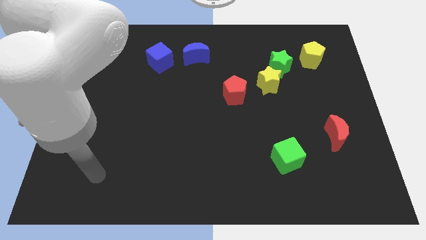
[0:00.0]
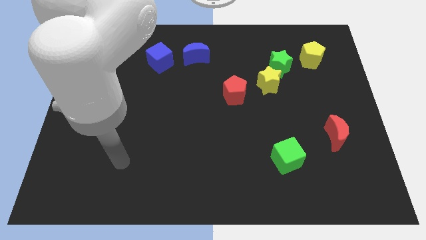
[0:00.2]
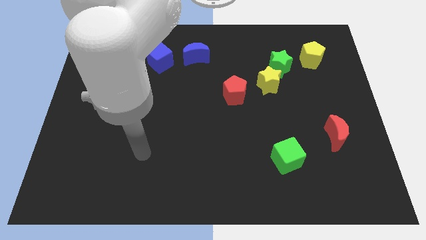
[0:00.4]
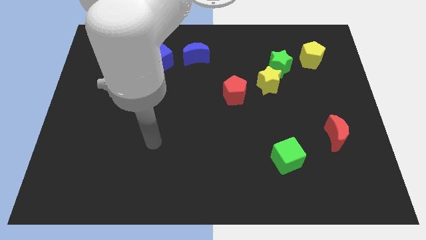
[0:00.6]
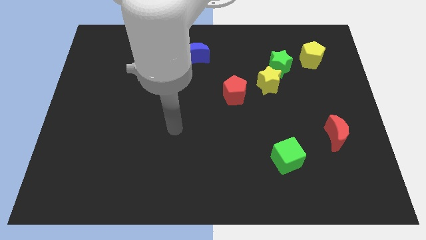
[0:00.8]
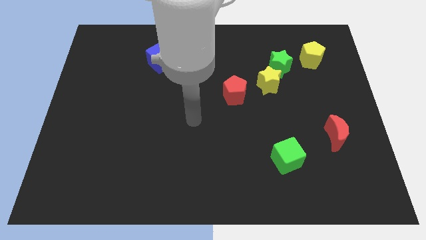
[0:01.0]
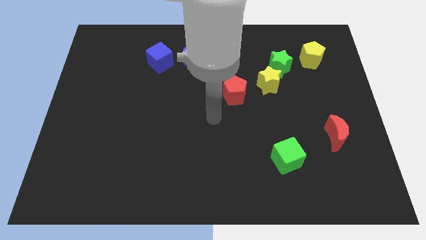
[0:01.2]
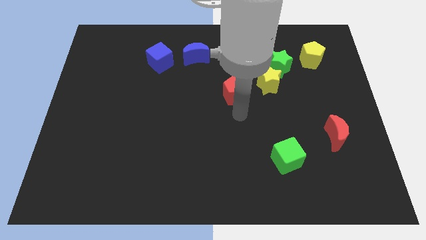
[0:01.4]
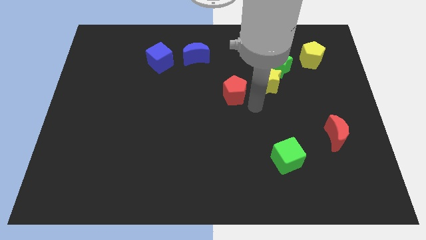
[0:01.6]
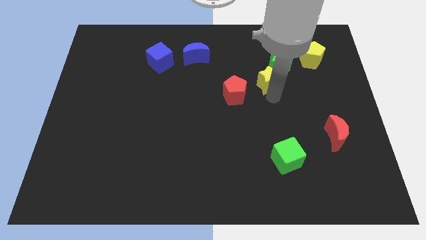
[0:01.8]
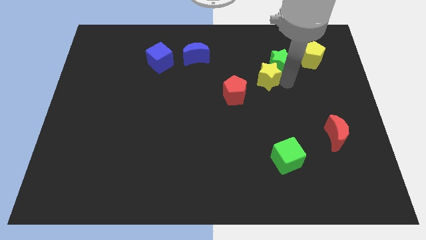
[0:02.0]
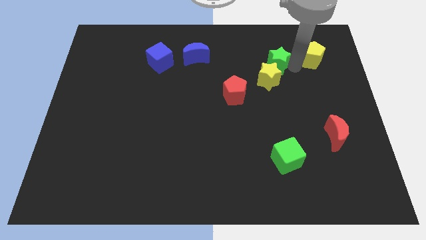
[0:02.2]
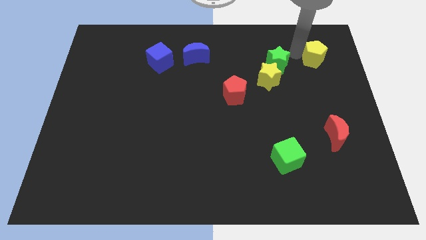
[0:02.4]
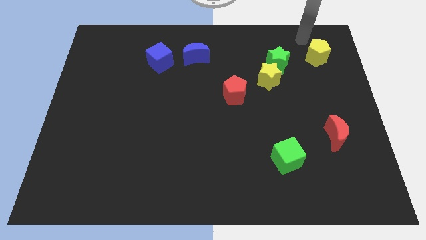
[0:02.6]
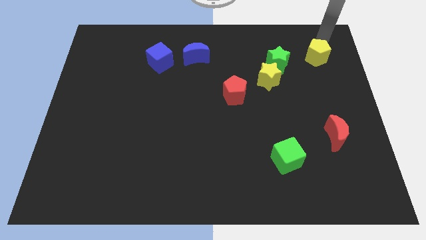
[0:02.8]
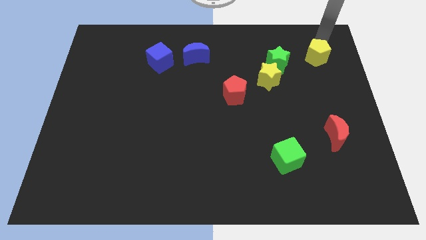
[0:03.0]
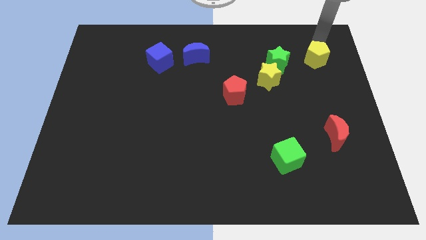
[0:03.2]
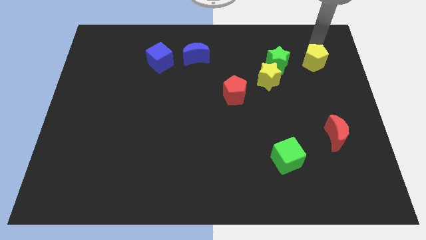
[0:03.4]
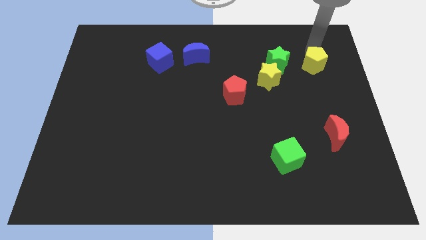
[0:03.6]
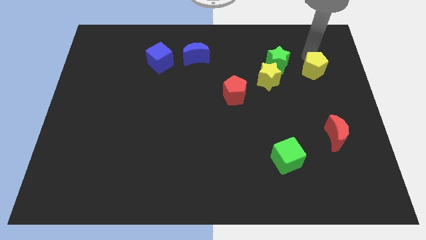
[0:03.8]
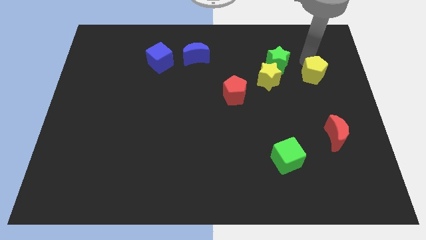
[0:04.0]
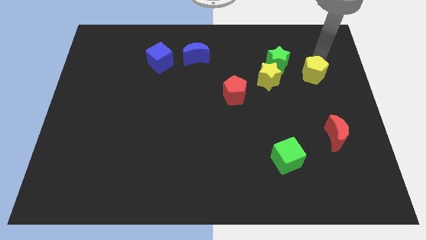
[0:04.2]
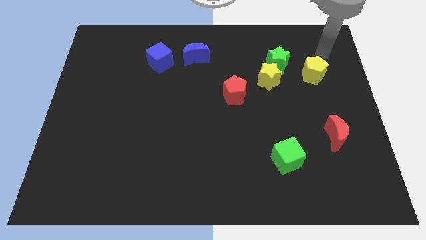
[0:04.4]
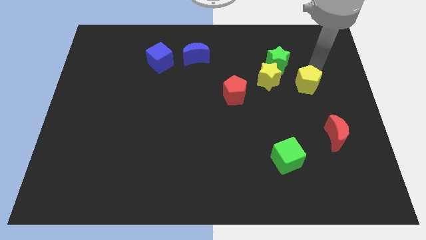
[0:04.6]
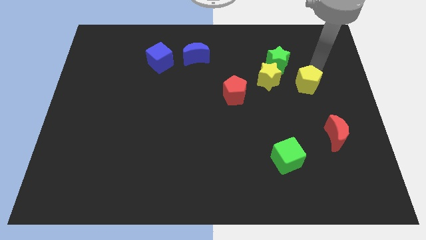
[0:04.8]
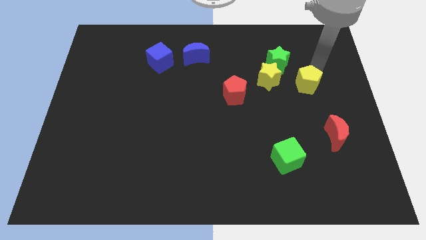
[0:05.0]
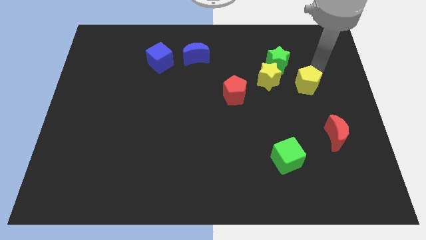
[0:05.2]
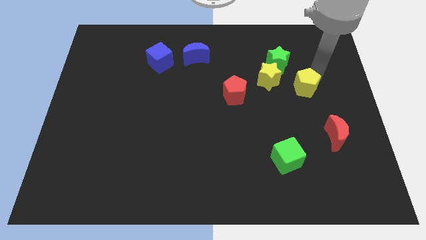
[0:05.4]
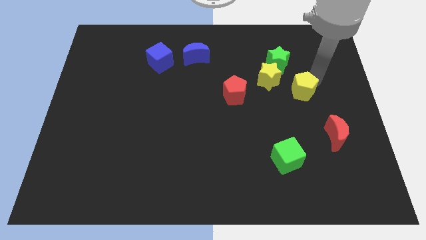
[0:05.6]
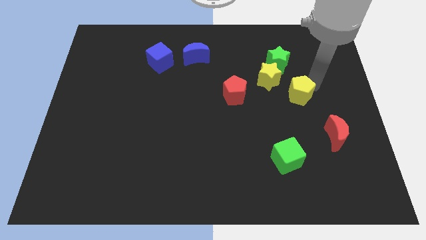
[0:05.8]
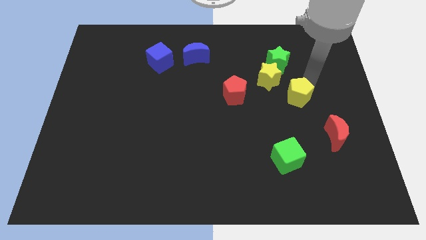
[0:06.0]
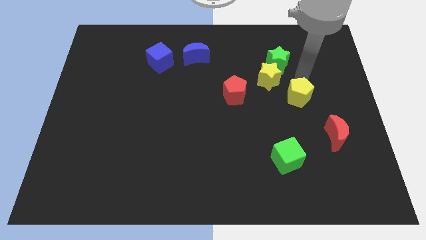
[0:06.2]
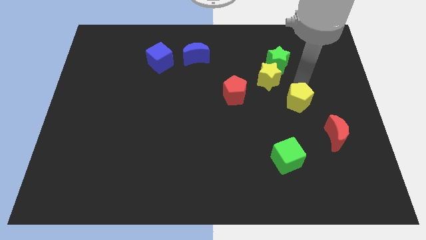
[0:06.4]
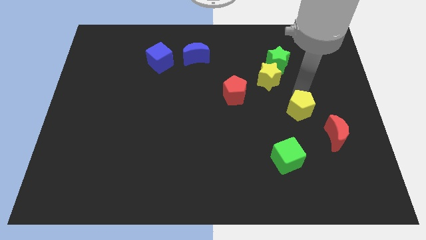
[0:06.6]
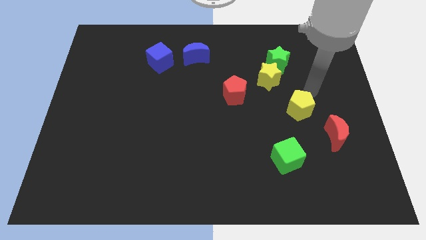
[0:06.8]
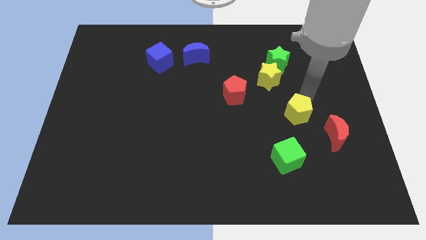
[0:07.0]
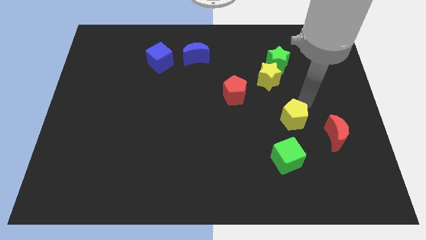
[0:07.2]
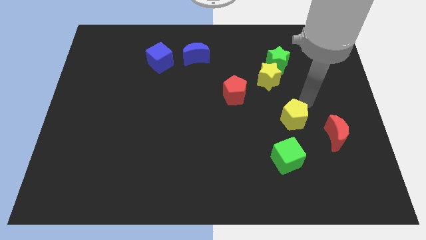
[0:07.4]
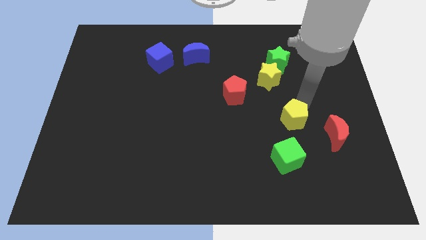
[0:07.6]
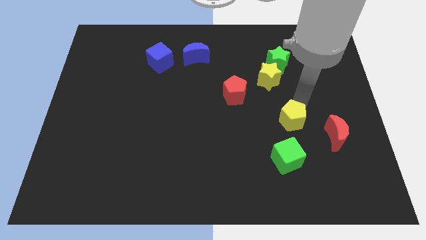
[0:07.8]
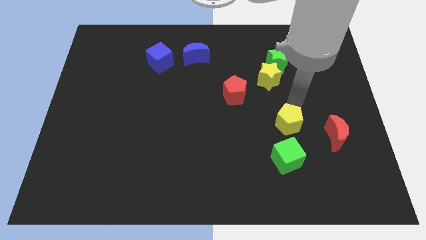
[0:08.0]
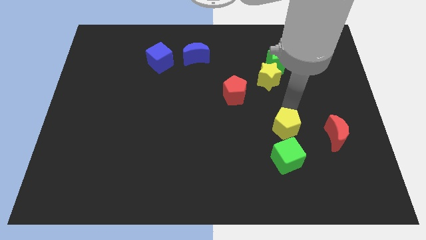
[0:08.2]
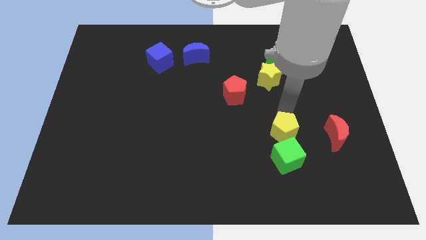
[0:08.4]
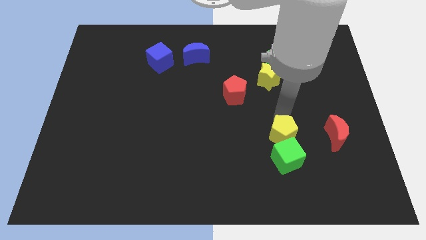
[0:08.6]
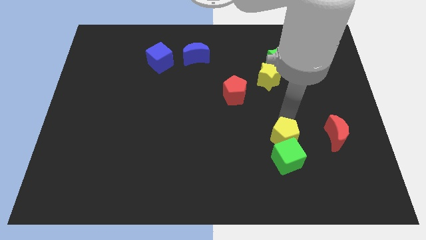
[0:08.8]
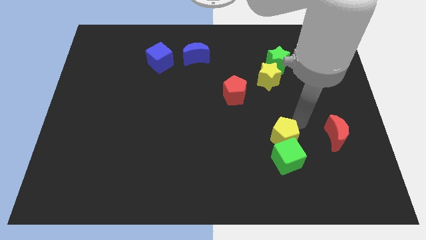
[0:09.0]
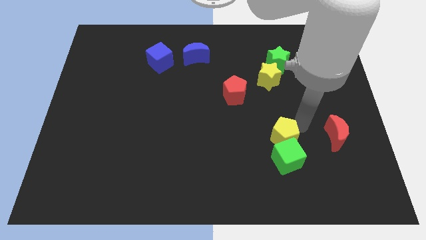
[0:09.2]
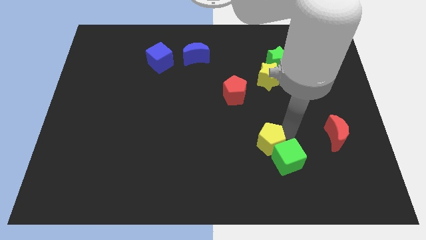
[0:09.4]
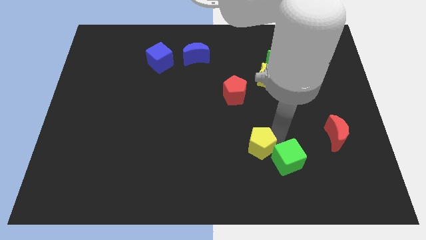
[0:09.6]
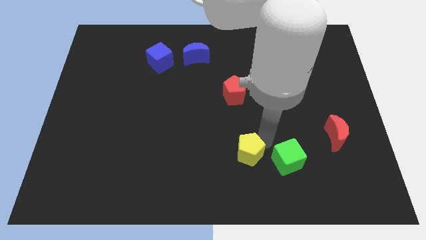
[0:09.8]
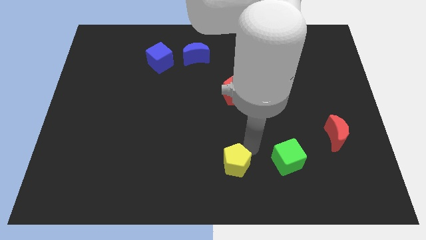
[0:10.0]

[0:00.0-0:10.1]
push the yellow pentagon to the bottom side

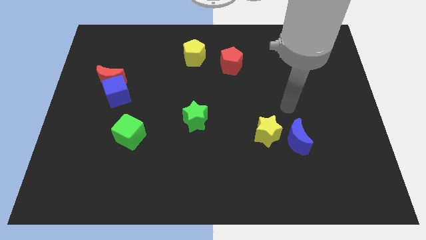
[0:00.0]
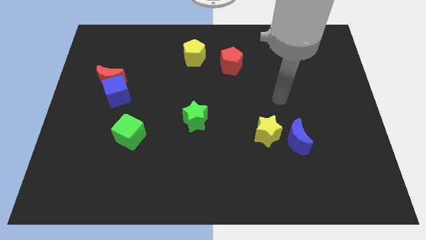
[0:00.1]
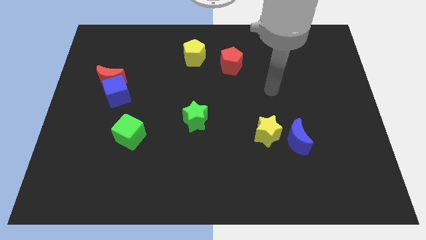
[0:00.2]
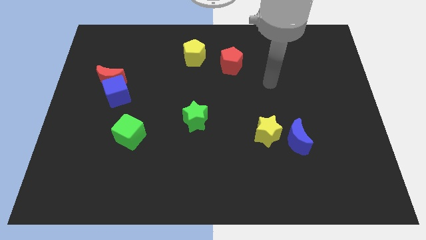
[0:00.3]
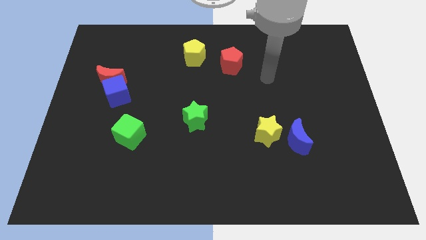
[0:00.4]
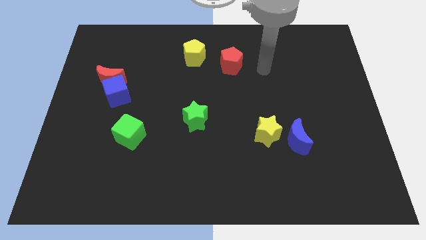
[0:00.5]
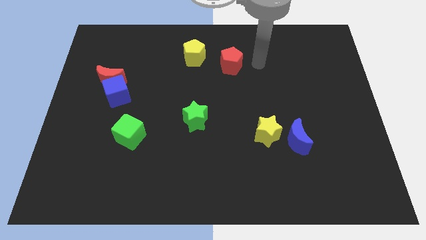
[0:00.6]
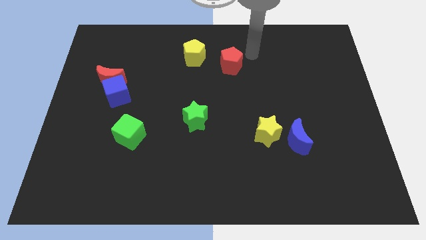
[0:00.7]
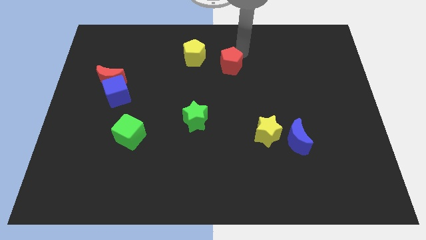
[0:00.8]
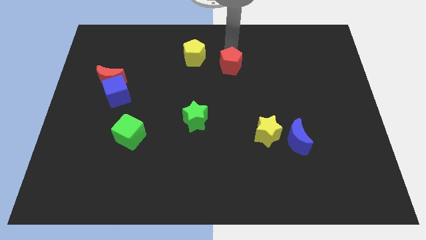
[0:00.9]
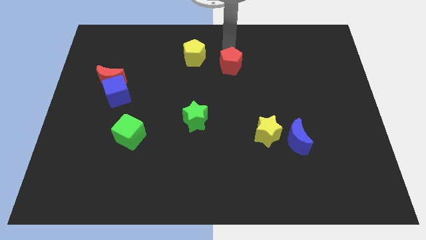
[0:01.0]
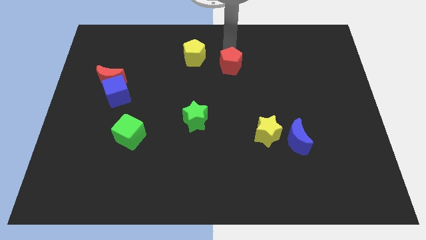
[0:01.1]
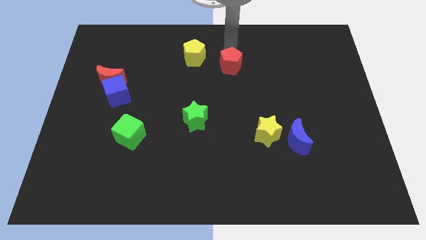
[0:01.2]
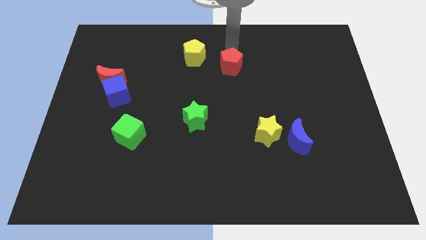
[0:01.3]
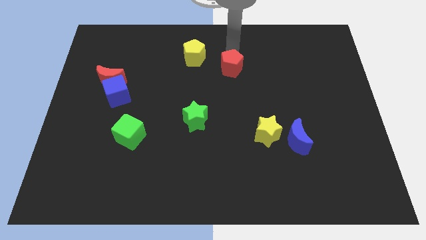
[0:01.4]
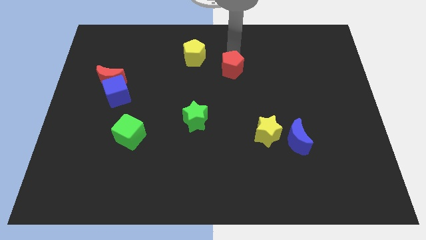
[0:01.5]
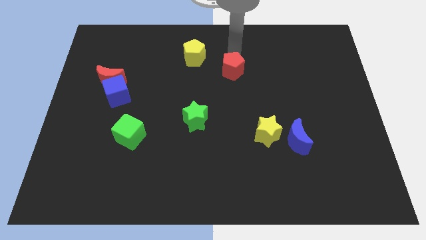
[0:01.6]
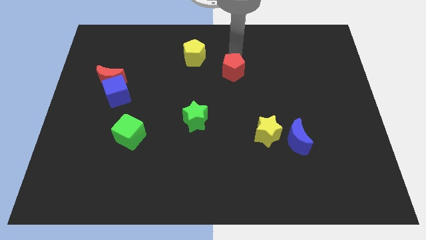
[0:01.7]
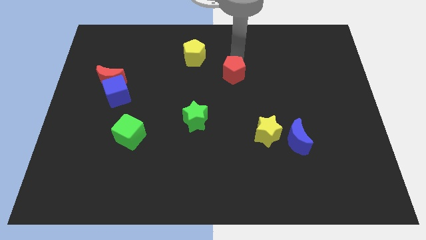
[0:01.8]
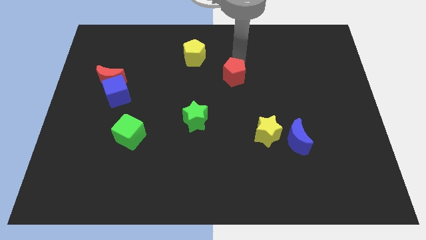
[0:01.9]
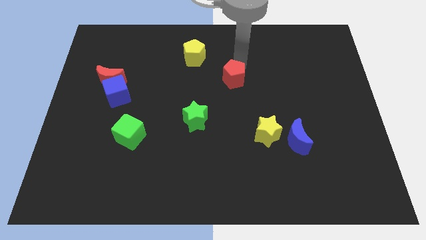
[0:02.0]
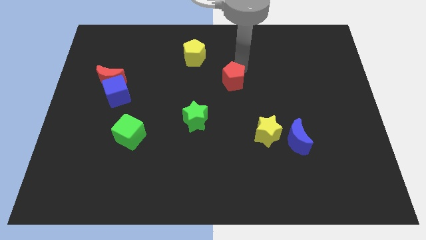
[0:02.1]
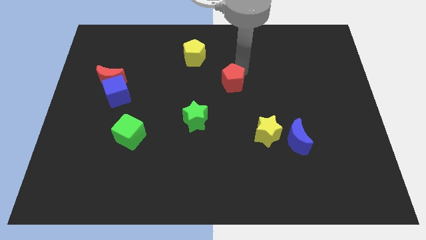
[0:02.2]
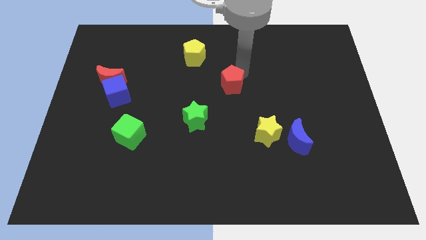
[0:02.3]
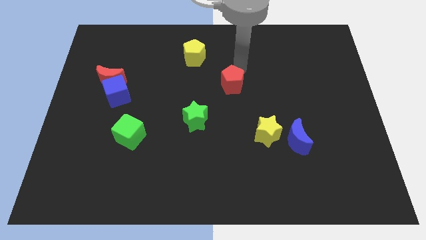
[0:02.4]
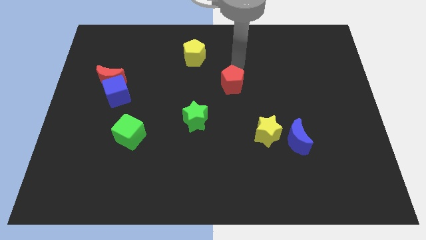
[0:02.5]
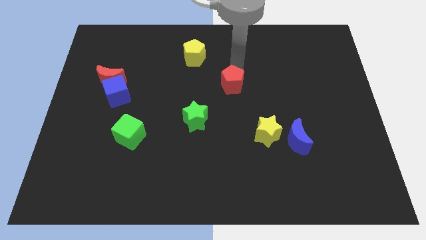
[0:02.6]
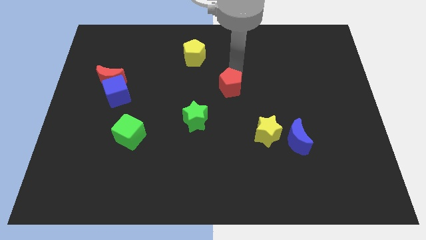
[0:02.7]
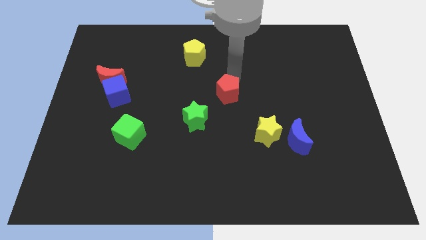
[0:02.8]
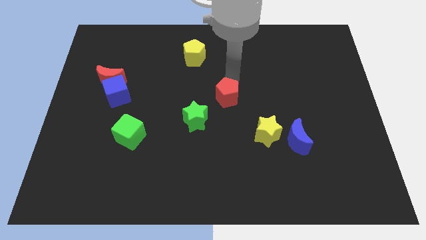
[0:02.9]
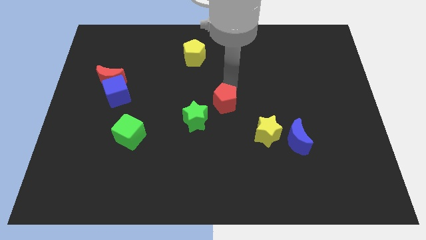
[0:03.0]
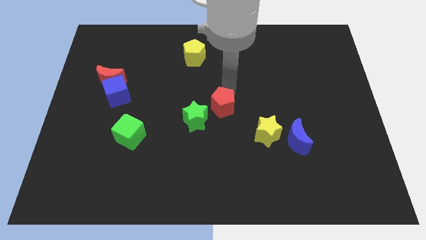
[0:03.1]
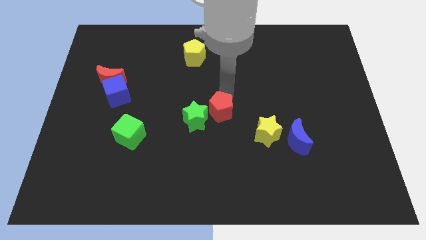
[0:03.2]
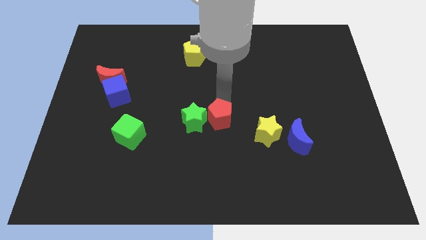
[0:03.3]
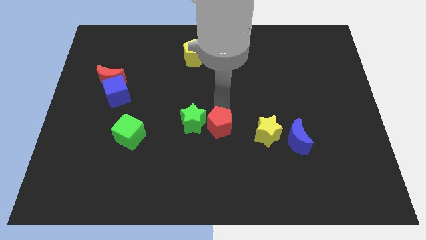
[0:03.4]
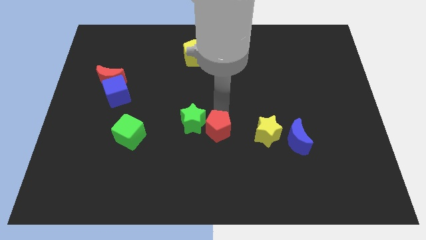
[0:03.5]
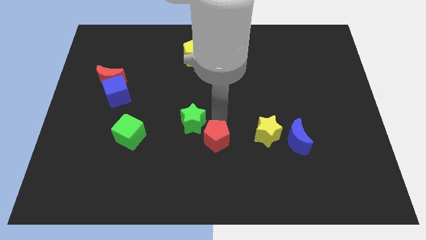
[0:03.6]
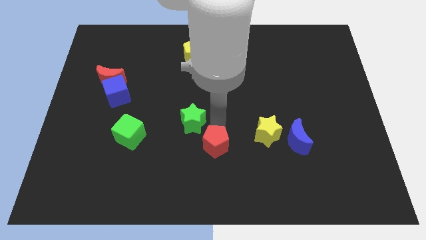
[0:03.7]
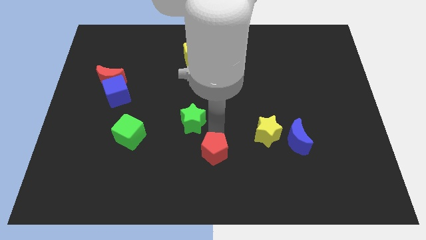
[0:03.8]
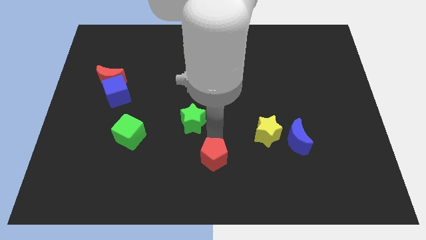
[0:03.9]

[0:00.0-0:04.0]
slide the red pentagon to the bottom side
